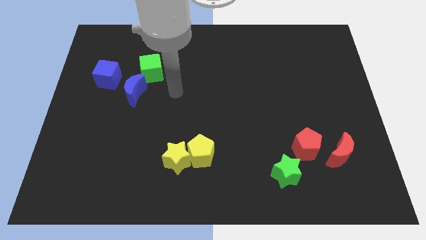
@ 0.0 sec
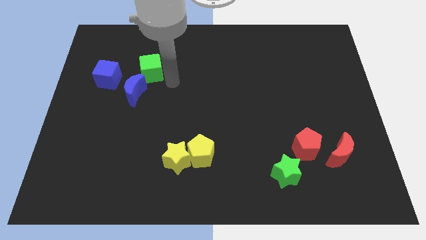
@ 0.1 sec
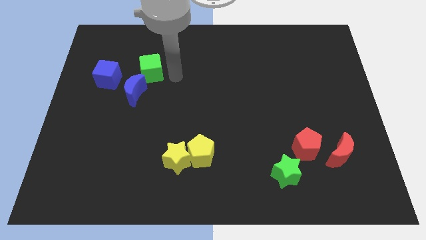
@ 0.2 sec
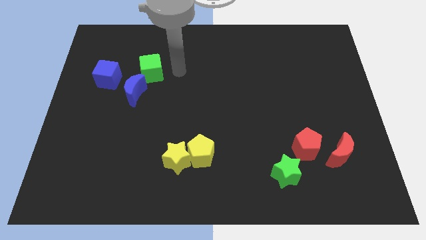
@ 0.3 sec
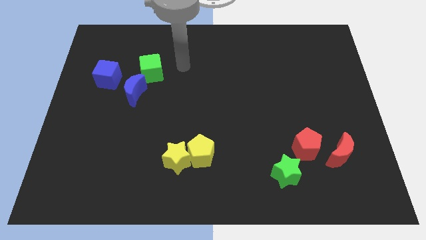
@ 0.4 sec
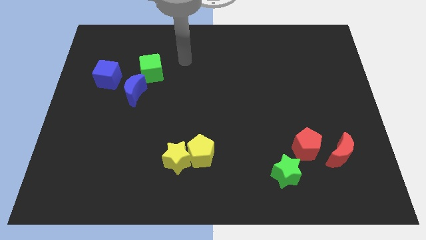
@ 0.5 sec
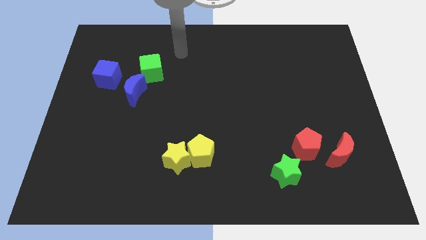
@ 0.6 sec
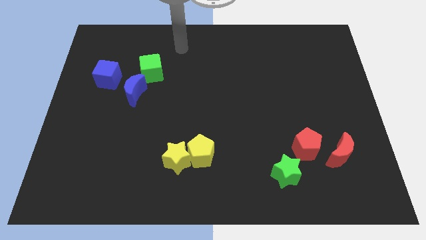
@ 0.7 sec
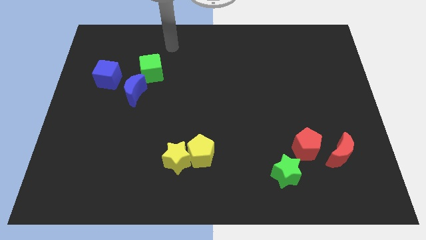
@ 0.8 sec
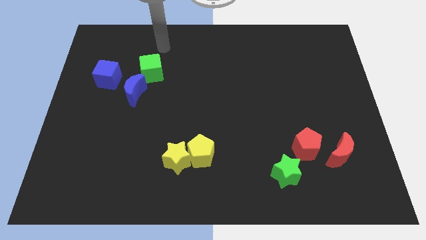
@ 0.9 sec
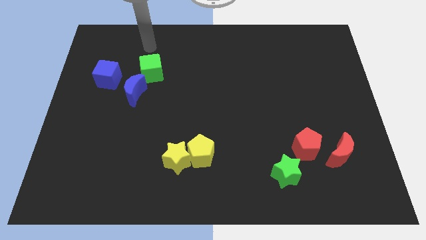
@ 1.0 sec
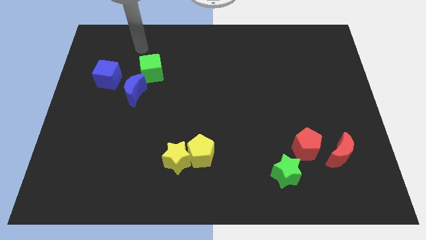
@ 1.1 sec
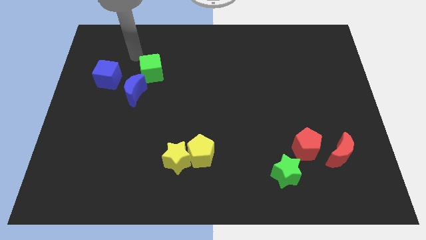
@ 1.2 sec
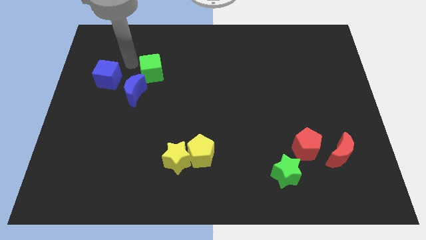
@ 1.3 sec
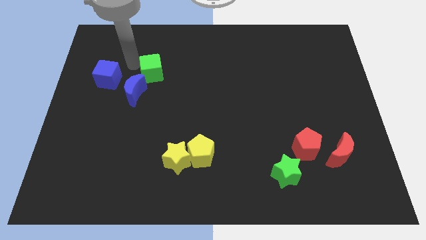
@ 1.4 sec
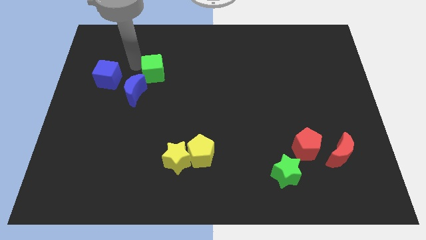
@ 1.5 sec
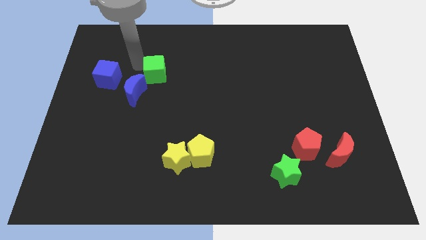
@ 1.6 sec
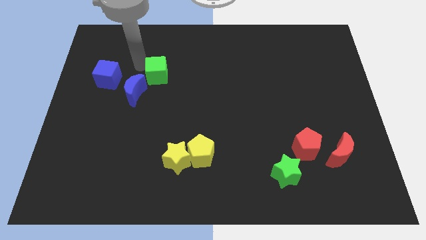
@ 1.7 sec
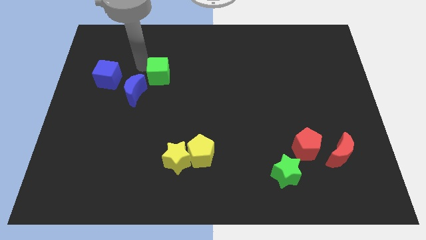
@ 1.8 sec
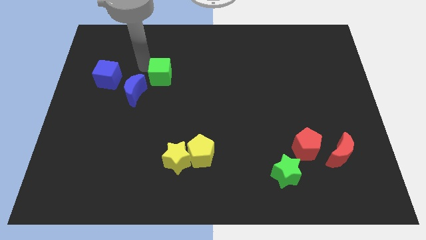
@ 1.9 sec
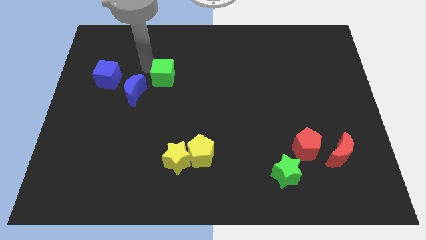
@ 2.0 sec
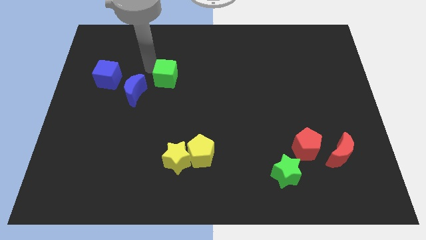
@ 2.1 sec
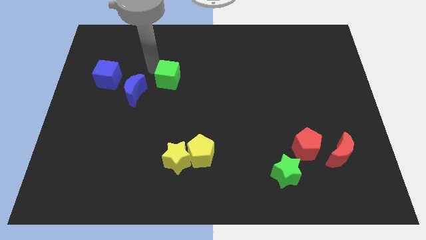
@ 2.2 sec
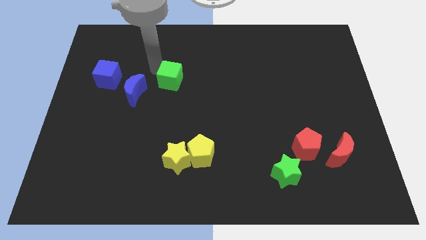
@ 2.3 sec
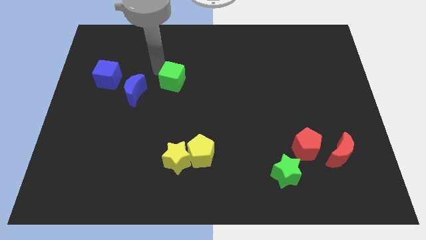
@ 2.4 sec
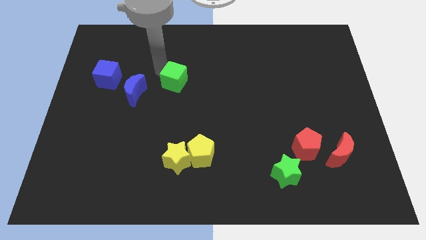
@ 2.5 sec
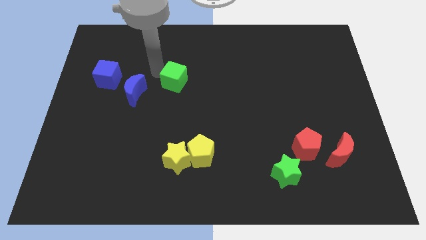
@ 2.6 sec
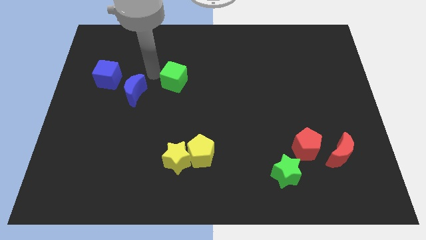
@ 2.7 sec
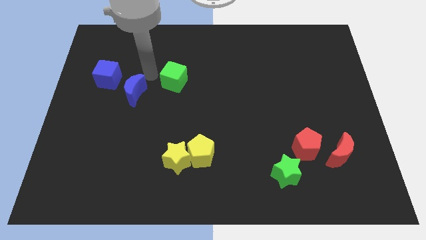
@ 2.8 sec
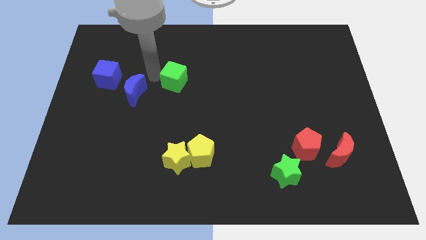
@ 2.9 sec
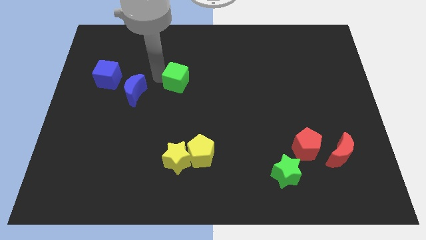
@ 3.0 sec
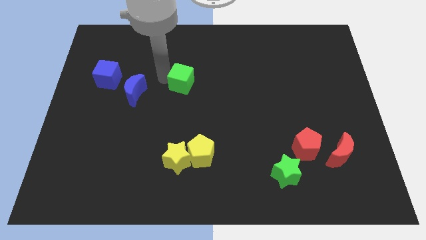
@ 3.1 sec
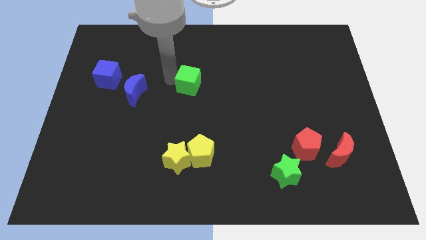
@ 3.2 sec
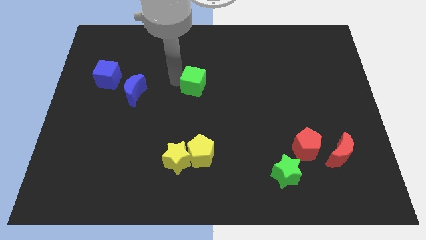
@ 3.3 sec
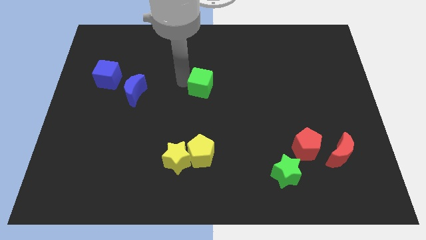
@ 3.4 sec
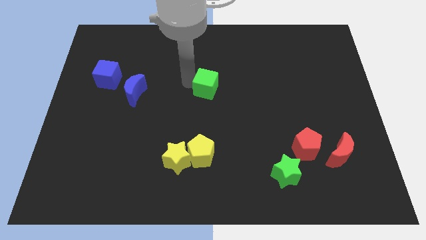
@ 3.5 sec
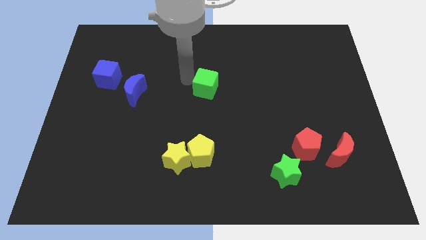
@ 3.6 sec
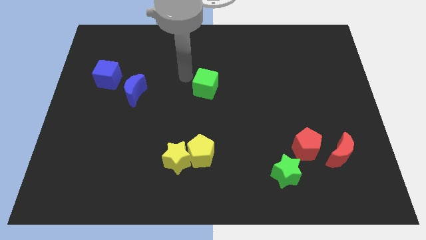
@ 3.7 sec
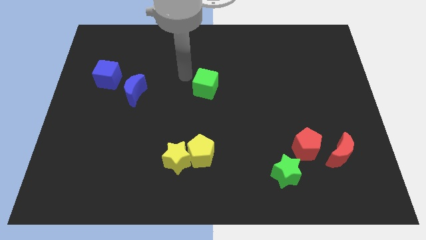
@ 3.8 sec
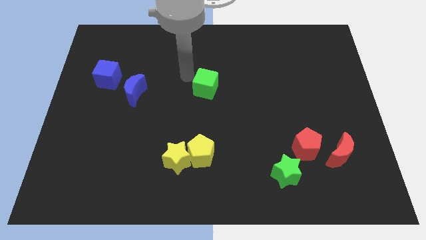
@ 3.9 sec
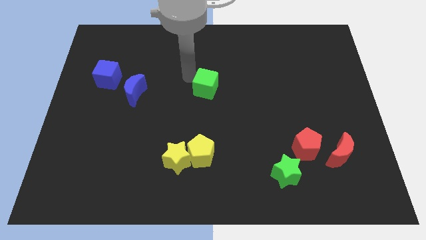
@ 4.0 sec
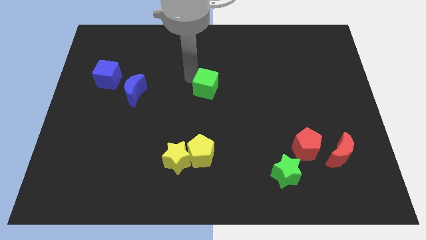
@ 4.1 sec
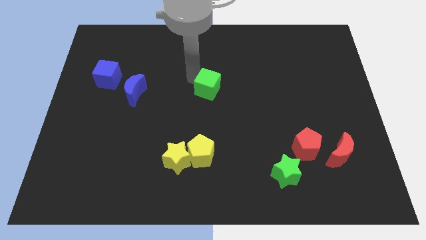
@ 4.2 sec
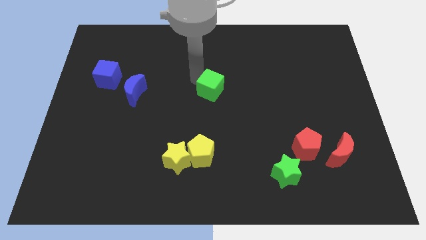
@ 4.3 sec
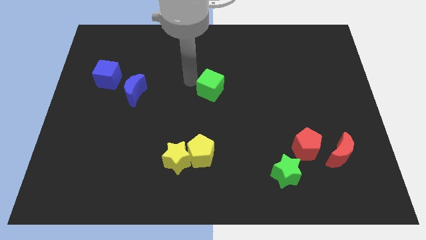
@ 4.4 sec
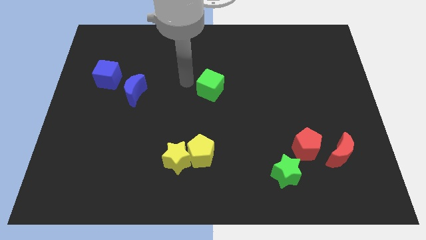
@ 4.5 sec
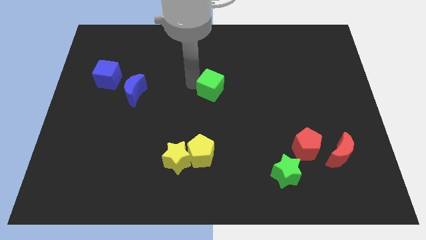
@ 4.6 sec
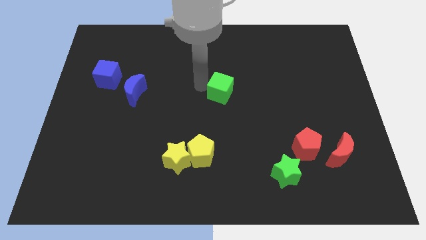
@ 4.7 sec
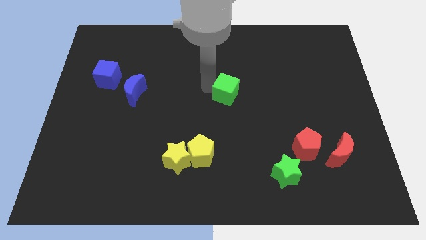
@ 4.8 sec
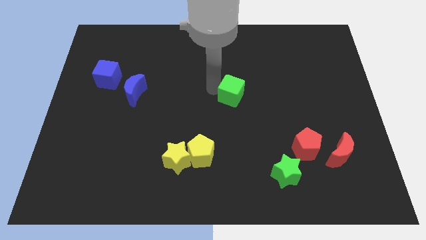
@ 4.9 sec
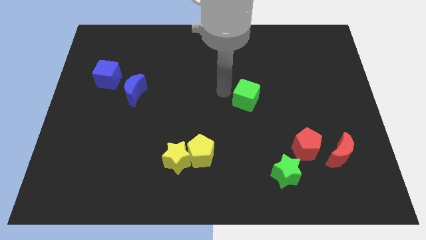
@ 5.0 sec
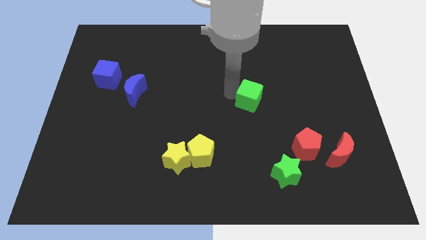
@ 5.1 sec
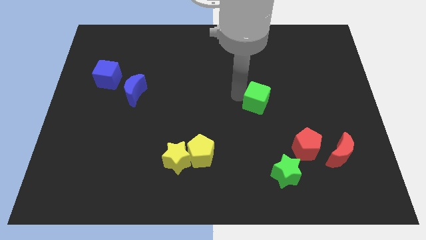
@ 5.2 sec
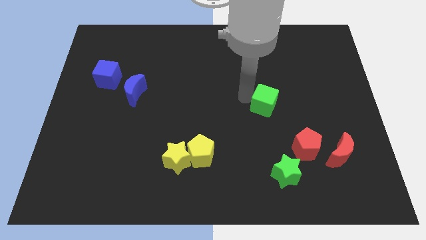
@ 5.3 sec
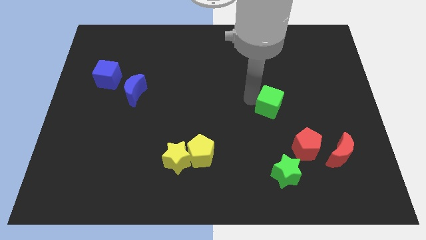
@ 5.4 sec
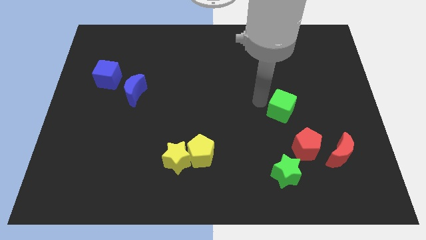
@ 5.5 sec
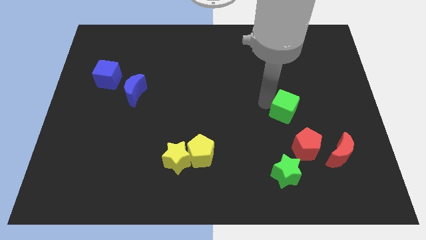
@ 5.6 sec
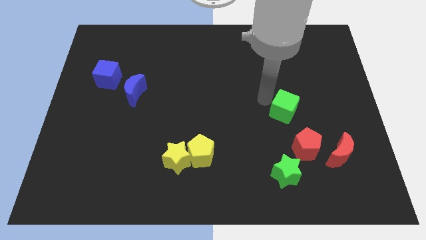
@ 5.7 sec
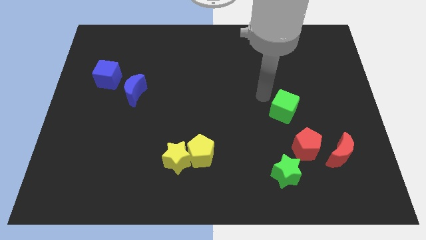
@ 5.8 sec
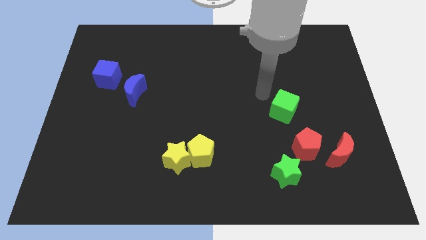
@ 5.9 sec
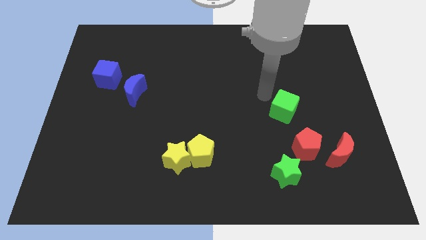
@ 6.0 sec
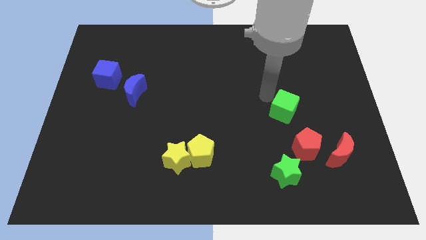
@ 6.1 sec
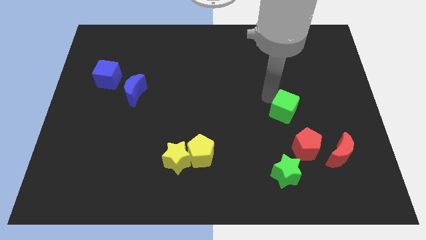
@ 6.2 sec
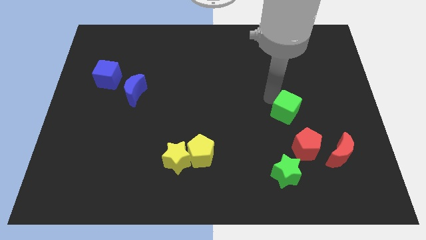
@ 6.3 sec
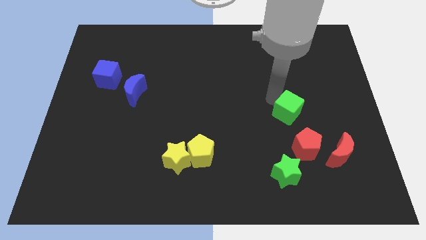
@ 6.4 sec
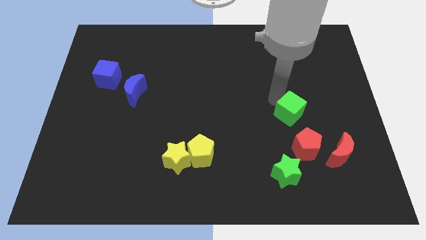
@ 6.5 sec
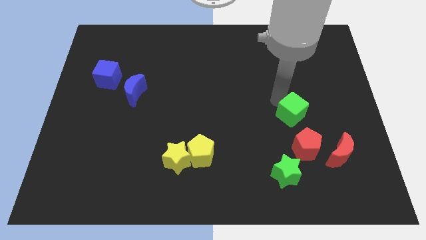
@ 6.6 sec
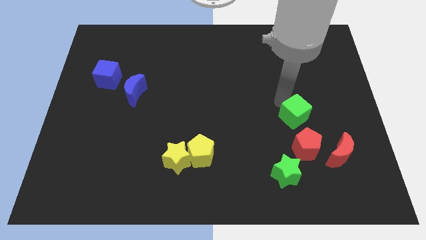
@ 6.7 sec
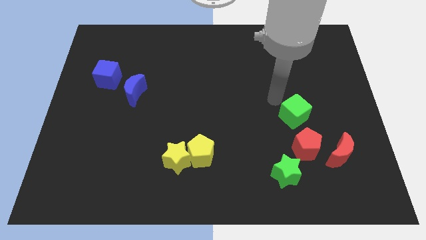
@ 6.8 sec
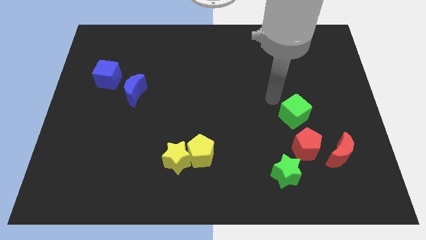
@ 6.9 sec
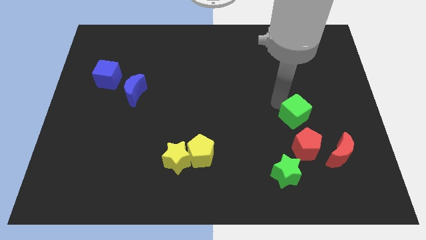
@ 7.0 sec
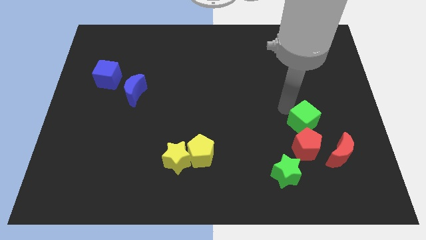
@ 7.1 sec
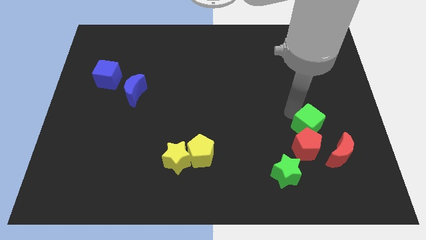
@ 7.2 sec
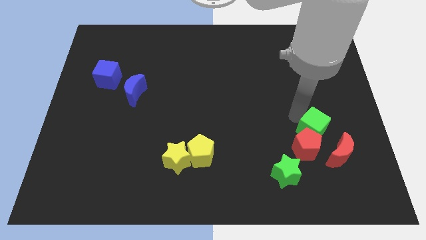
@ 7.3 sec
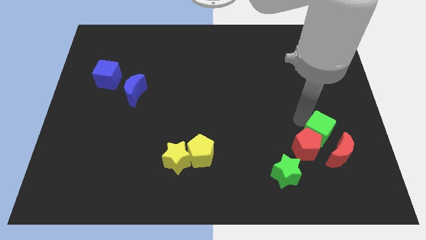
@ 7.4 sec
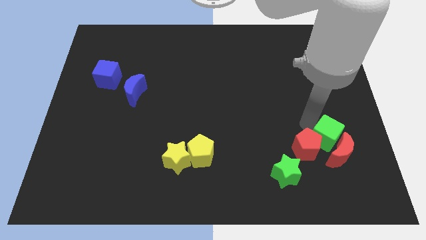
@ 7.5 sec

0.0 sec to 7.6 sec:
put the green cube close to the red moon
